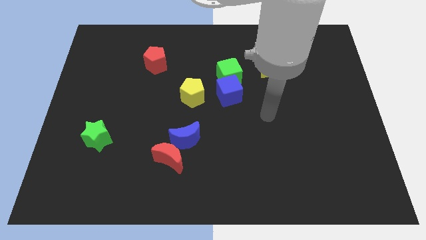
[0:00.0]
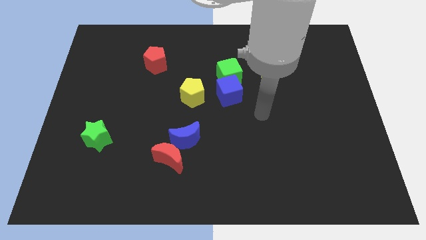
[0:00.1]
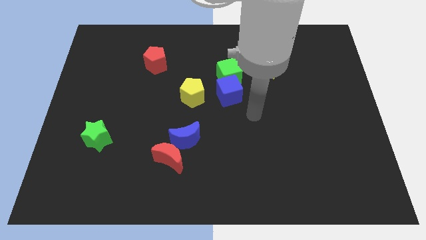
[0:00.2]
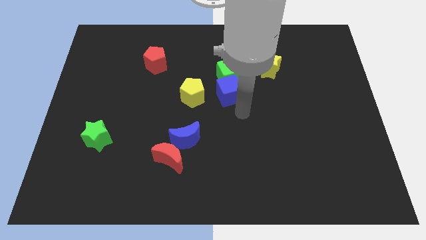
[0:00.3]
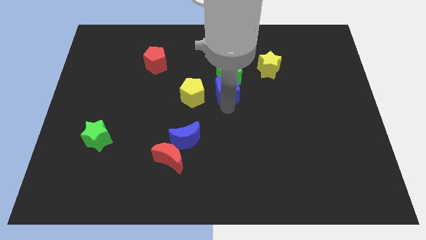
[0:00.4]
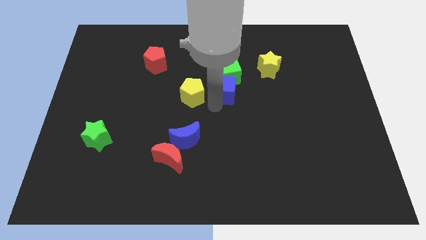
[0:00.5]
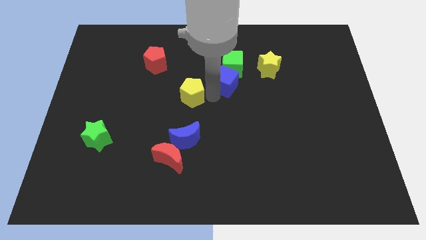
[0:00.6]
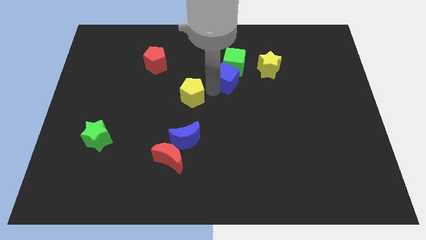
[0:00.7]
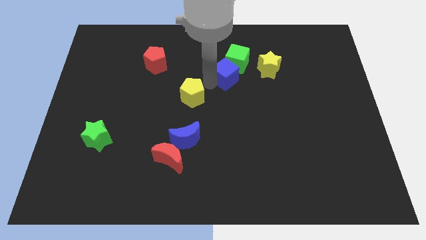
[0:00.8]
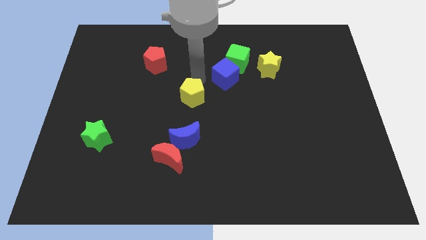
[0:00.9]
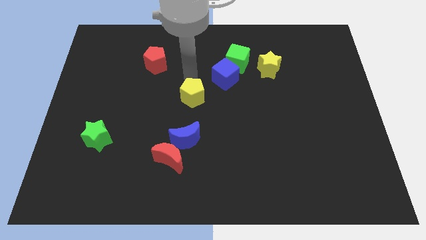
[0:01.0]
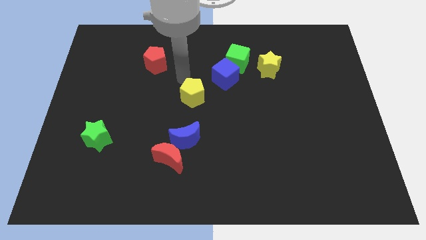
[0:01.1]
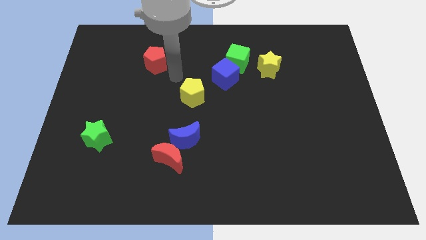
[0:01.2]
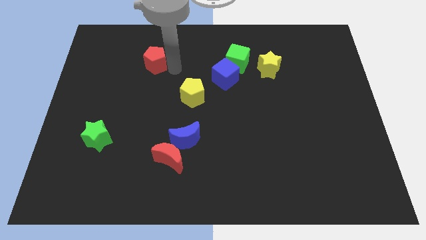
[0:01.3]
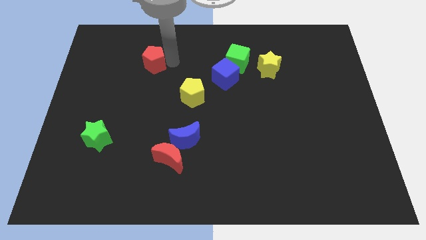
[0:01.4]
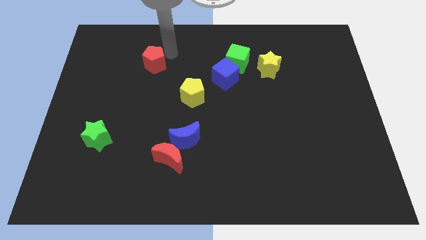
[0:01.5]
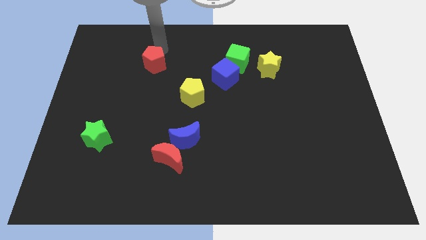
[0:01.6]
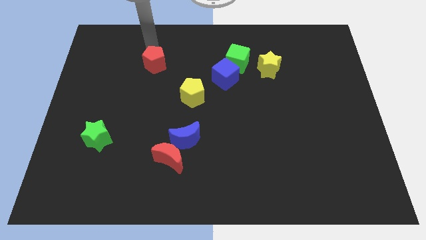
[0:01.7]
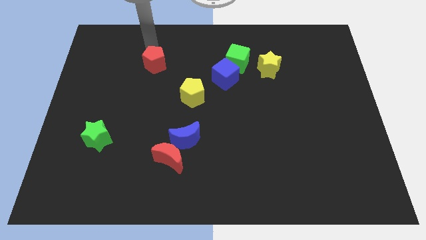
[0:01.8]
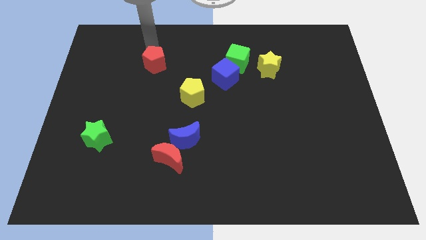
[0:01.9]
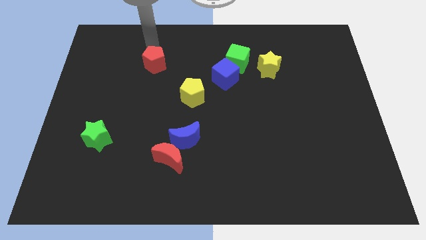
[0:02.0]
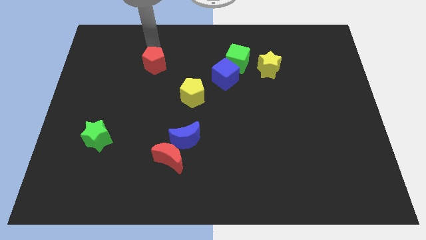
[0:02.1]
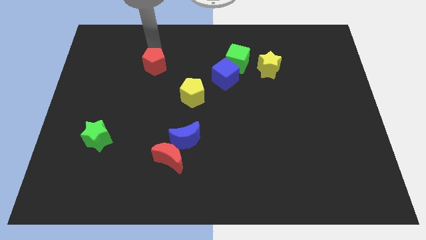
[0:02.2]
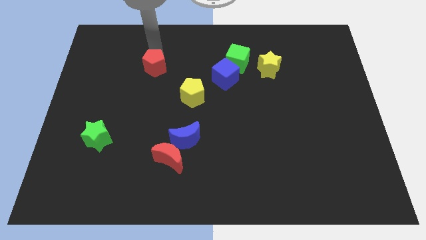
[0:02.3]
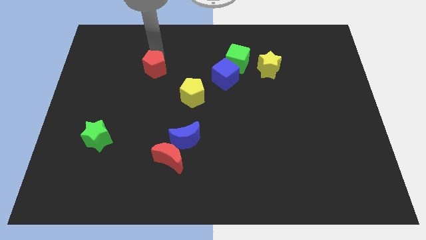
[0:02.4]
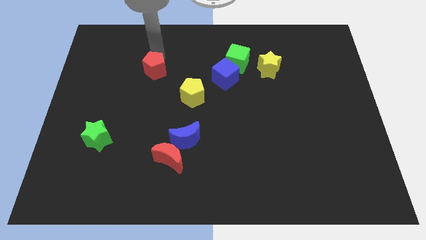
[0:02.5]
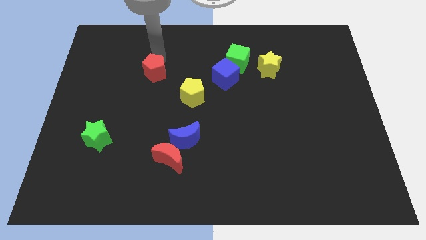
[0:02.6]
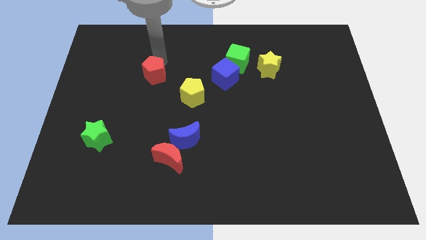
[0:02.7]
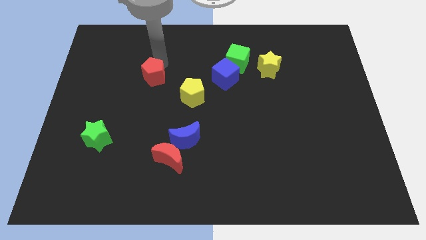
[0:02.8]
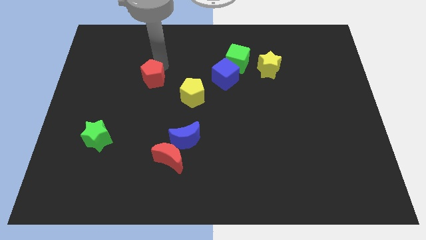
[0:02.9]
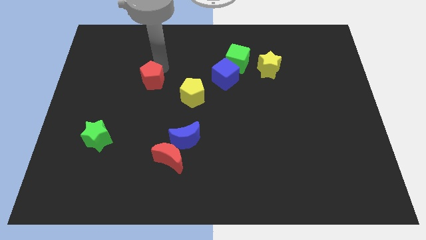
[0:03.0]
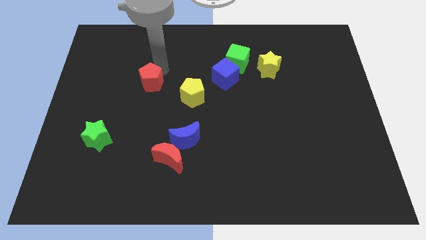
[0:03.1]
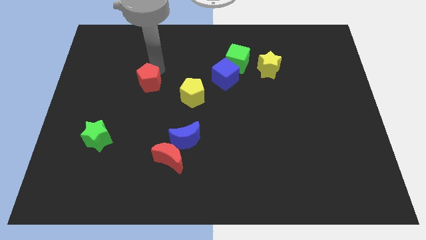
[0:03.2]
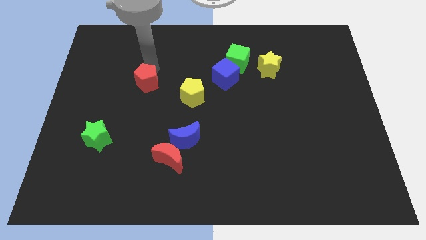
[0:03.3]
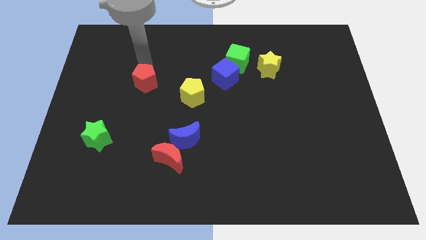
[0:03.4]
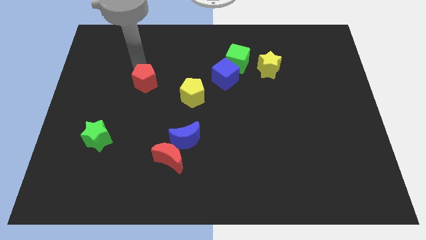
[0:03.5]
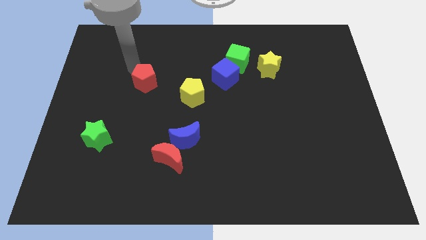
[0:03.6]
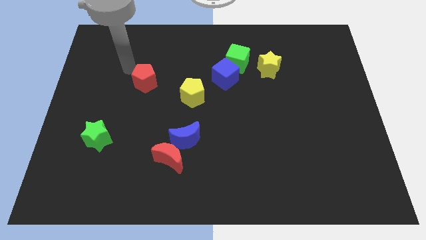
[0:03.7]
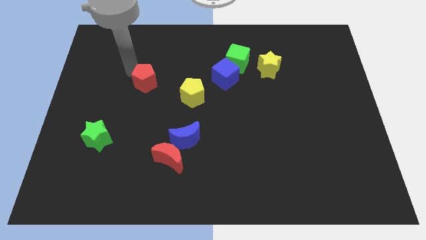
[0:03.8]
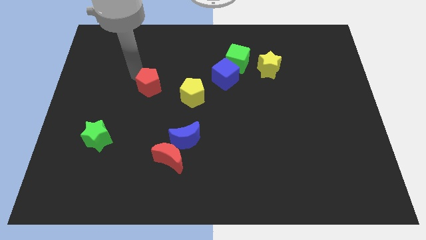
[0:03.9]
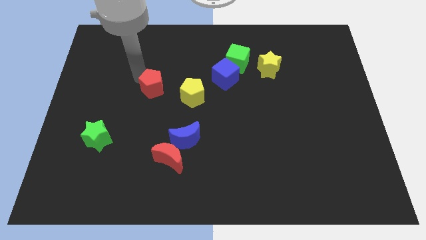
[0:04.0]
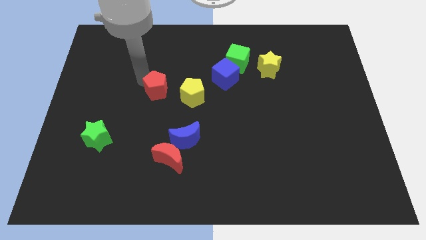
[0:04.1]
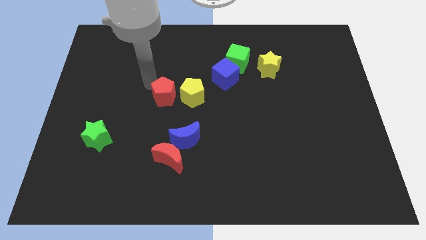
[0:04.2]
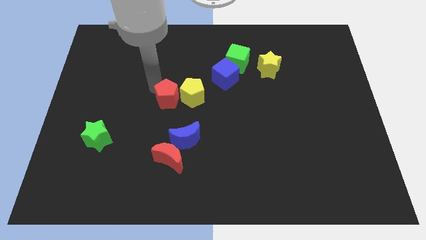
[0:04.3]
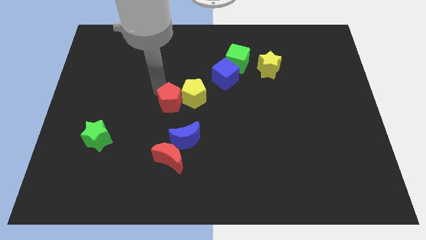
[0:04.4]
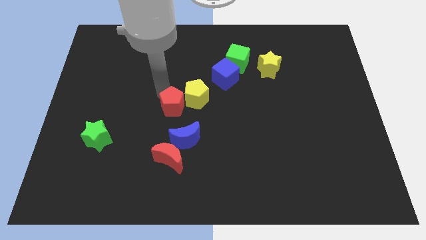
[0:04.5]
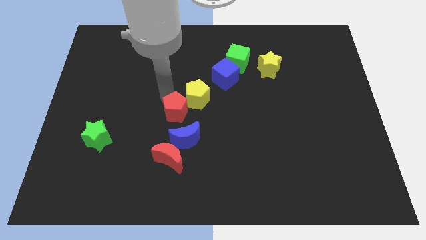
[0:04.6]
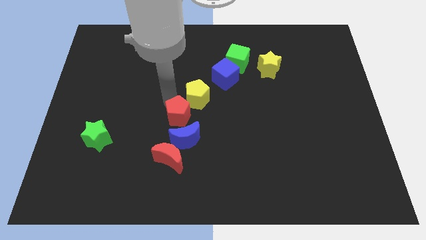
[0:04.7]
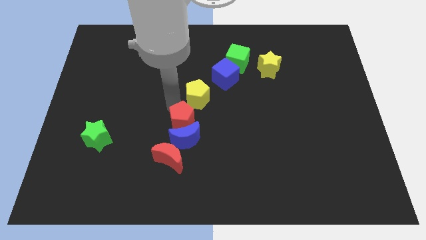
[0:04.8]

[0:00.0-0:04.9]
slide the red pentagon towards the blue moon

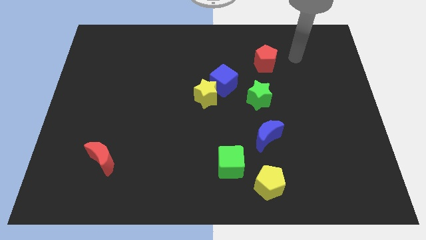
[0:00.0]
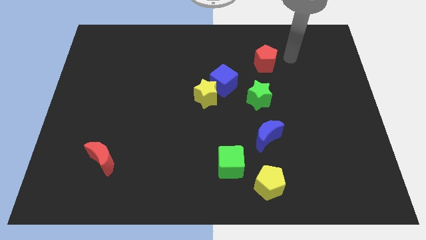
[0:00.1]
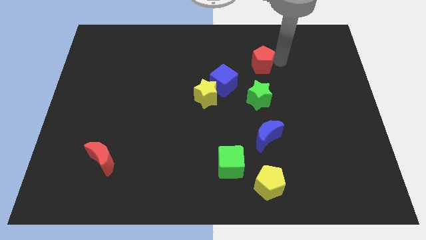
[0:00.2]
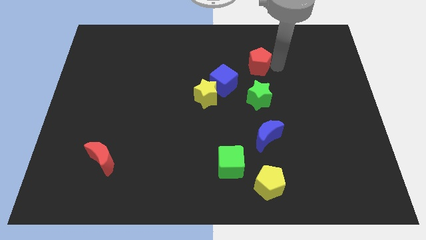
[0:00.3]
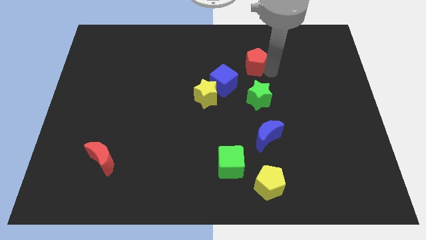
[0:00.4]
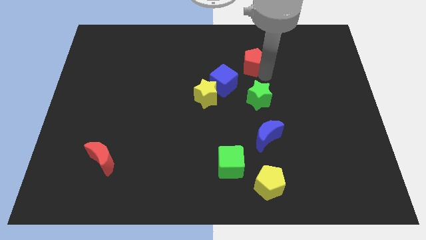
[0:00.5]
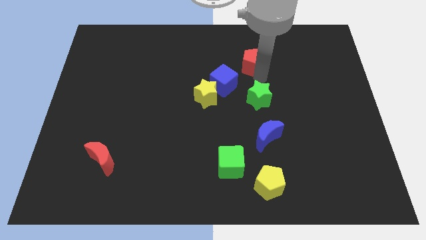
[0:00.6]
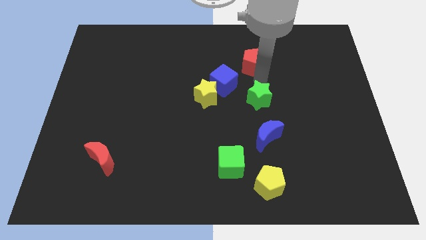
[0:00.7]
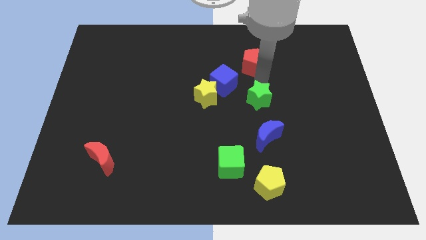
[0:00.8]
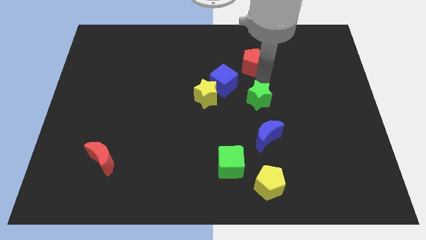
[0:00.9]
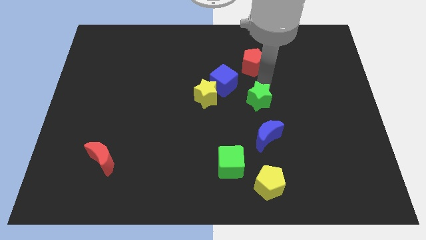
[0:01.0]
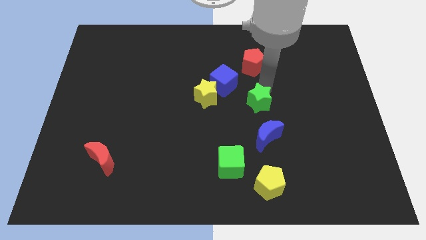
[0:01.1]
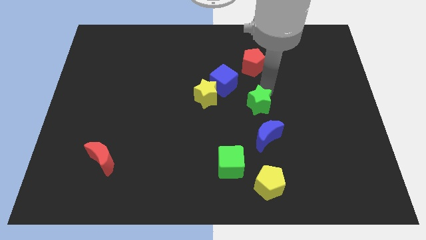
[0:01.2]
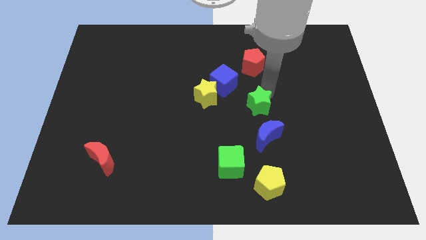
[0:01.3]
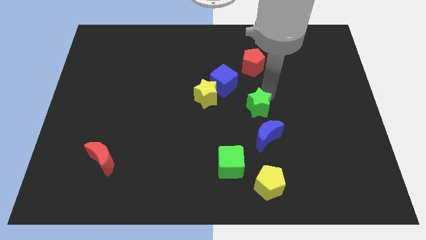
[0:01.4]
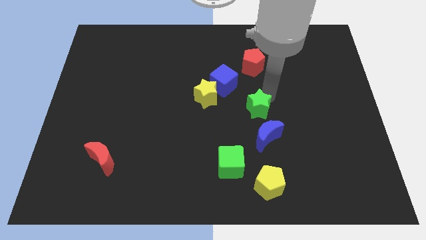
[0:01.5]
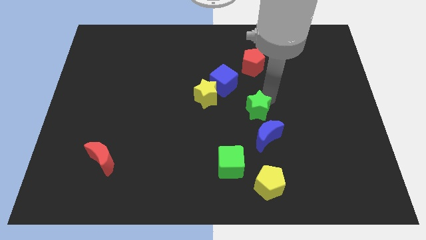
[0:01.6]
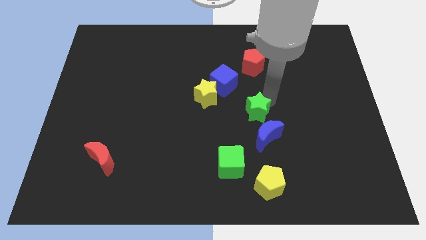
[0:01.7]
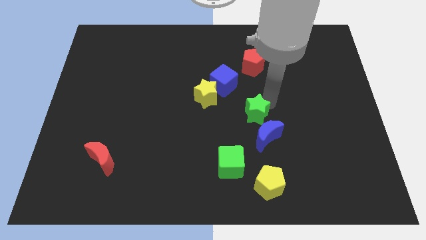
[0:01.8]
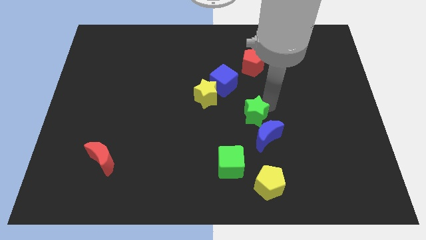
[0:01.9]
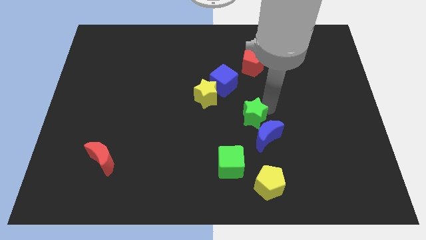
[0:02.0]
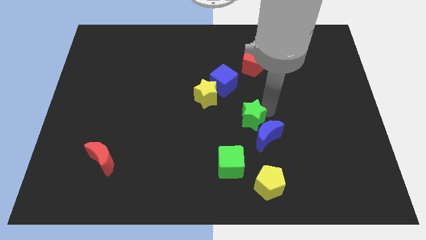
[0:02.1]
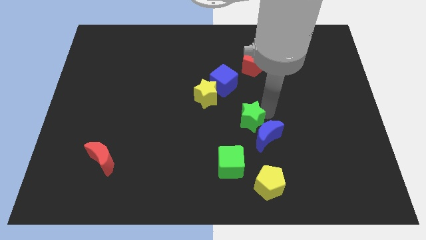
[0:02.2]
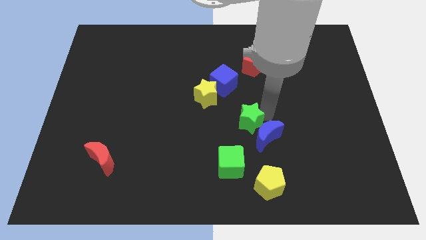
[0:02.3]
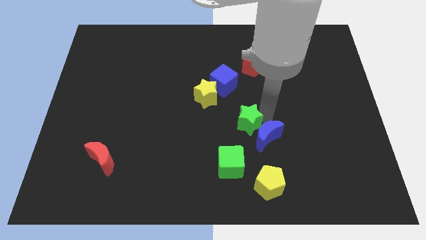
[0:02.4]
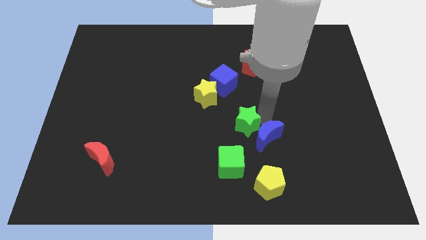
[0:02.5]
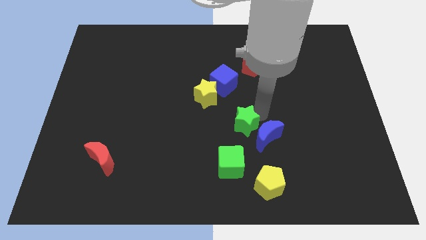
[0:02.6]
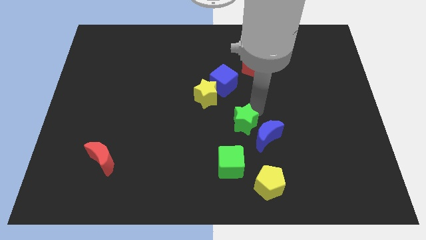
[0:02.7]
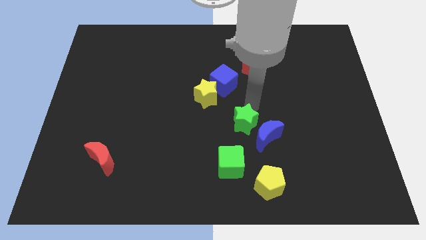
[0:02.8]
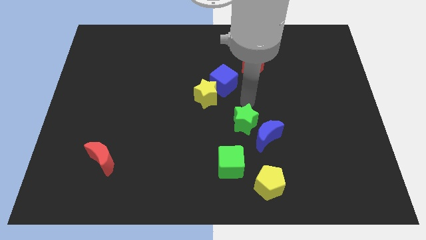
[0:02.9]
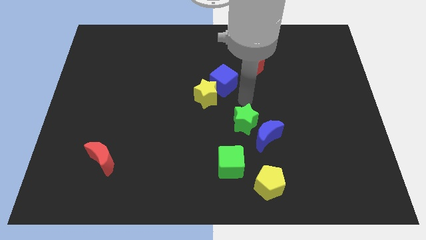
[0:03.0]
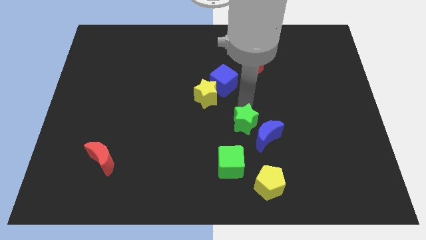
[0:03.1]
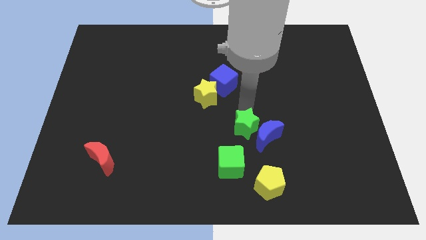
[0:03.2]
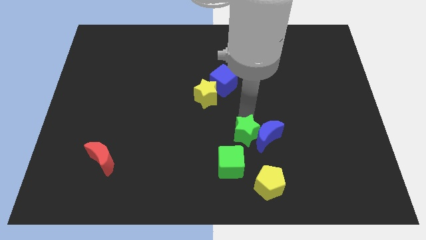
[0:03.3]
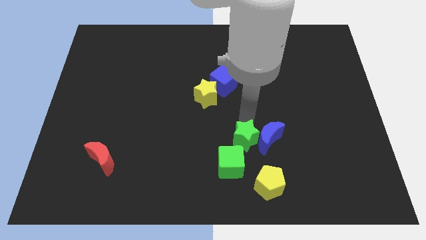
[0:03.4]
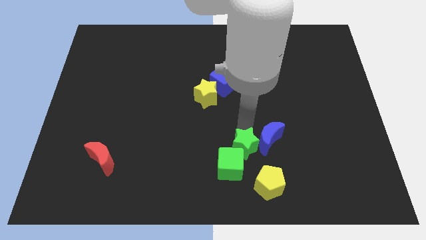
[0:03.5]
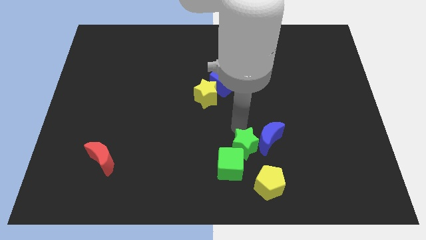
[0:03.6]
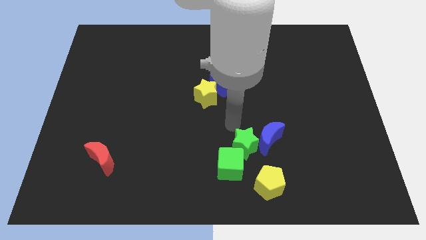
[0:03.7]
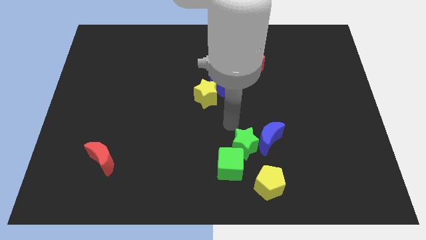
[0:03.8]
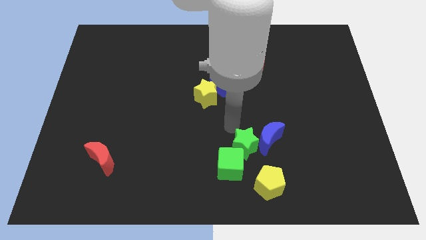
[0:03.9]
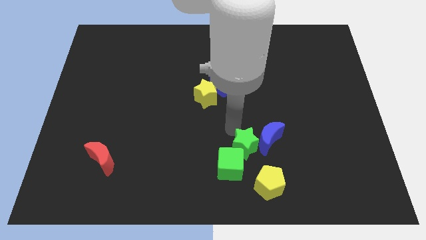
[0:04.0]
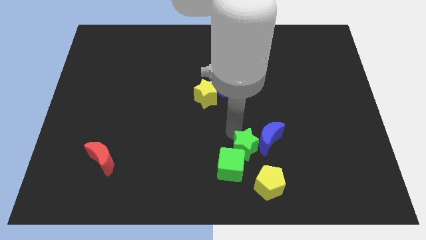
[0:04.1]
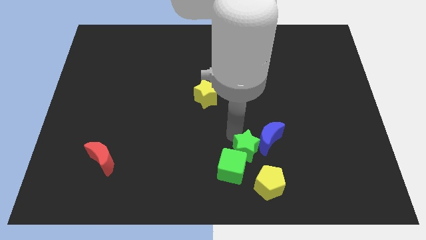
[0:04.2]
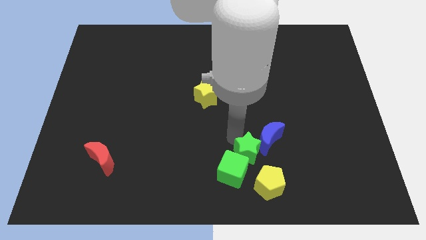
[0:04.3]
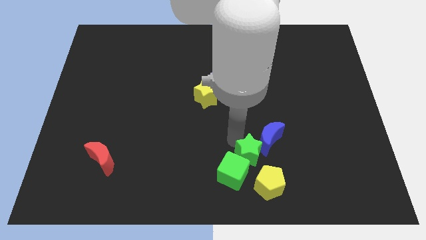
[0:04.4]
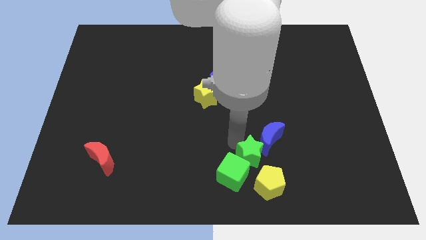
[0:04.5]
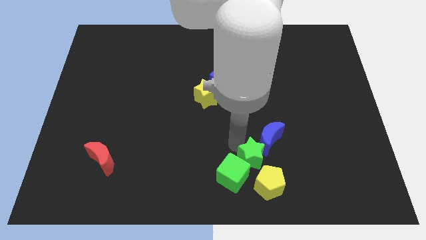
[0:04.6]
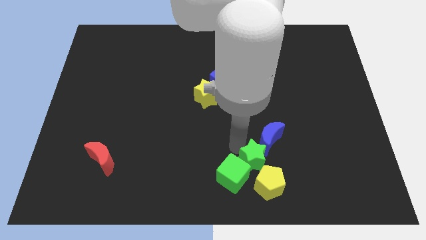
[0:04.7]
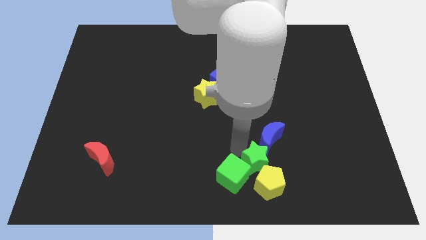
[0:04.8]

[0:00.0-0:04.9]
push the green star close to the yellow pentagon
